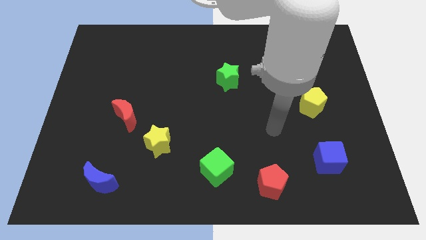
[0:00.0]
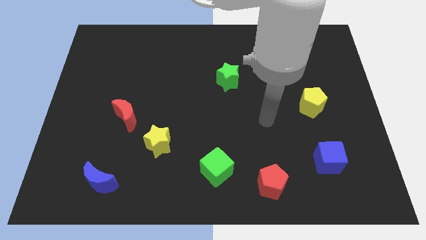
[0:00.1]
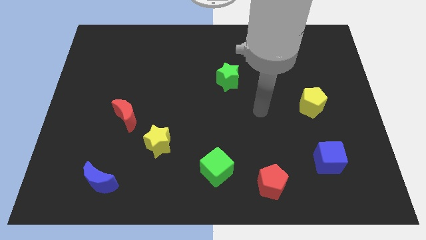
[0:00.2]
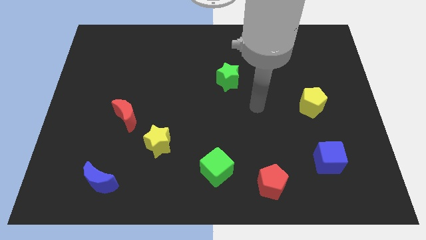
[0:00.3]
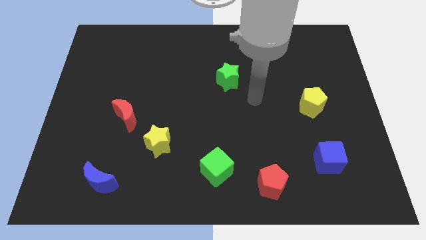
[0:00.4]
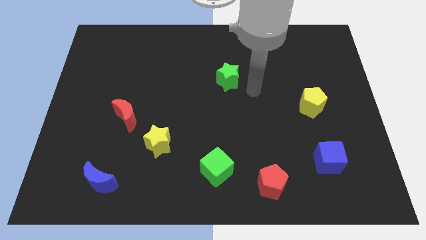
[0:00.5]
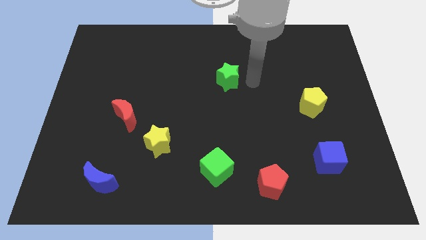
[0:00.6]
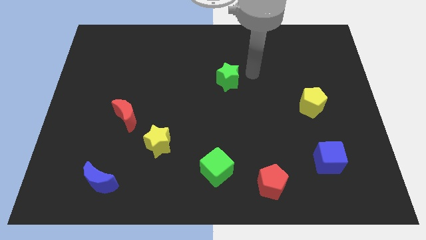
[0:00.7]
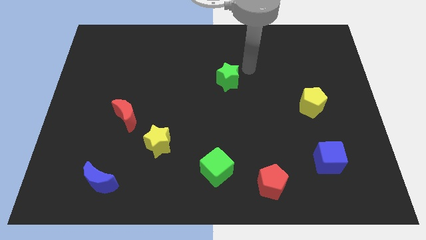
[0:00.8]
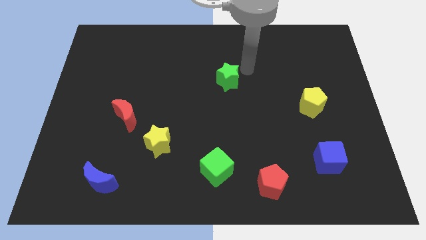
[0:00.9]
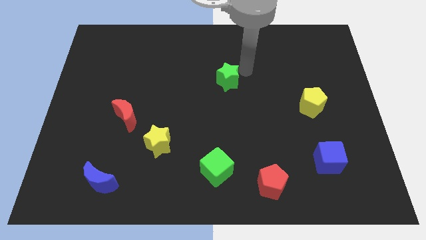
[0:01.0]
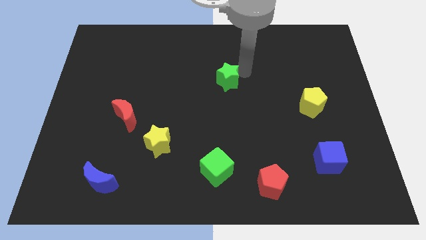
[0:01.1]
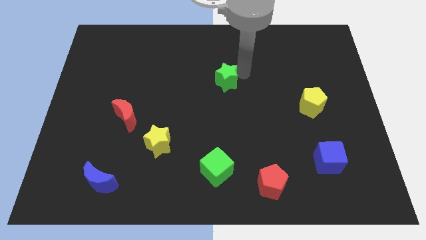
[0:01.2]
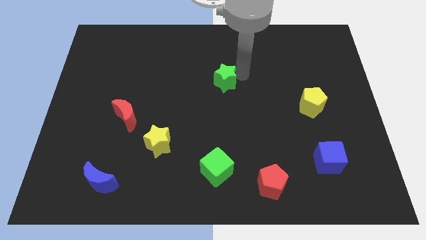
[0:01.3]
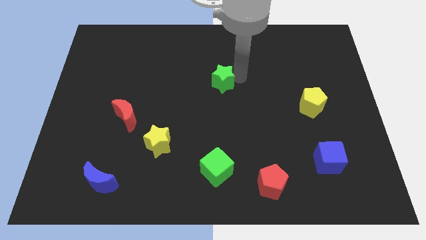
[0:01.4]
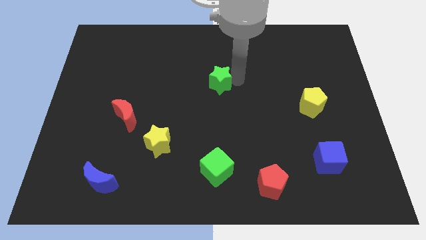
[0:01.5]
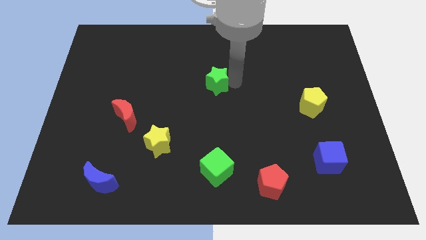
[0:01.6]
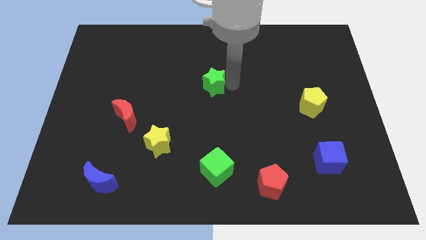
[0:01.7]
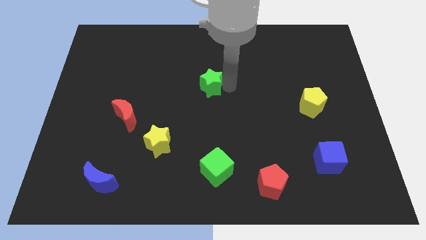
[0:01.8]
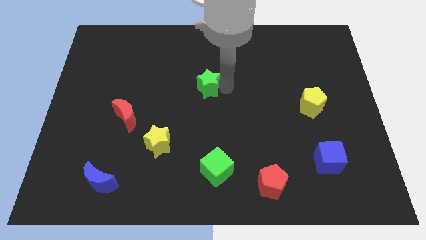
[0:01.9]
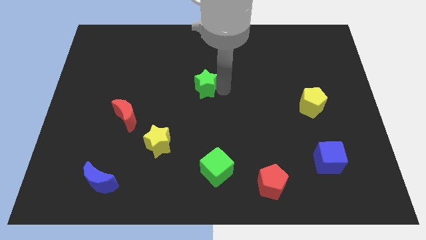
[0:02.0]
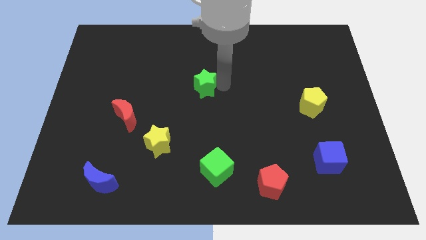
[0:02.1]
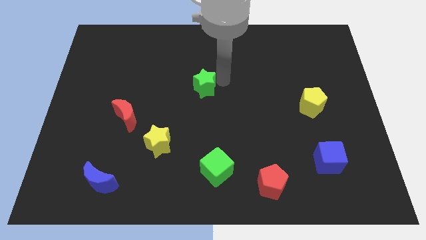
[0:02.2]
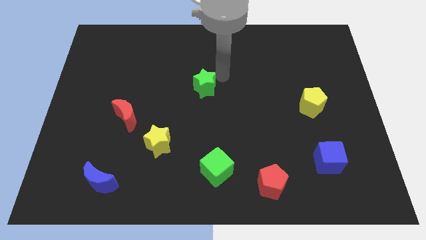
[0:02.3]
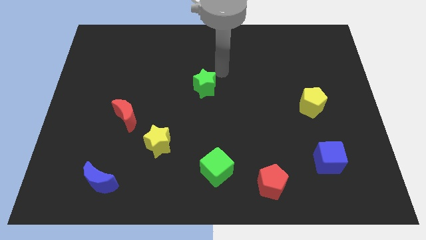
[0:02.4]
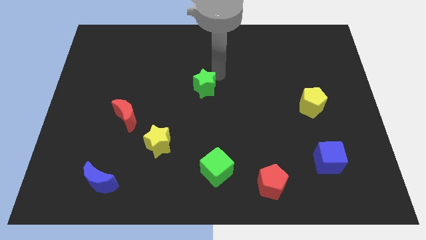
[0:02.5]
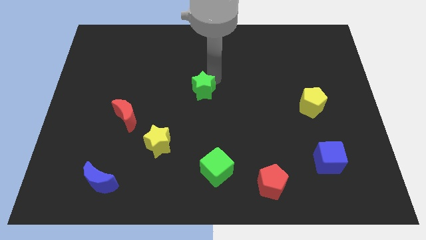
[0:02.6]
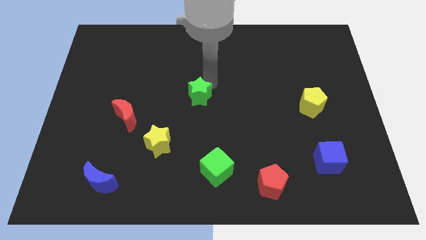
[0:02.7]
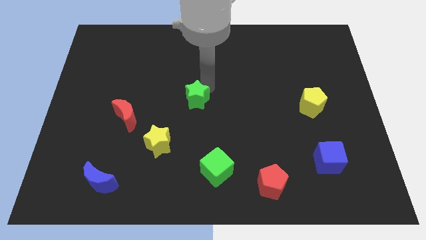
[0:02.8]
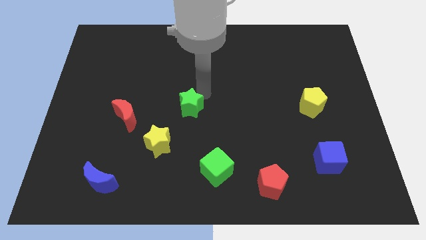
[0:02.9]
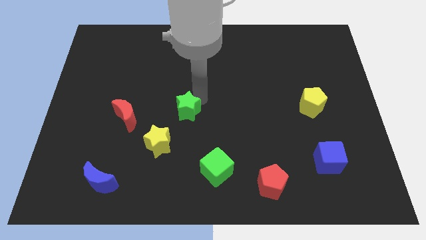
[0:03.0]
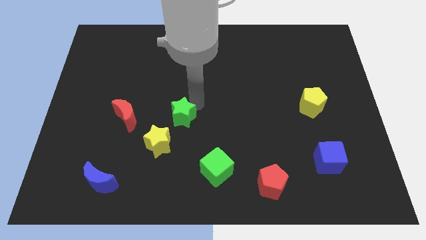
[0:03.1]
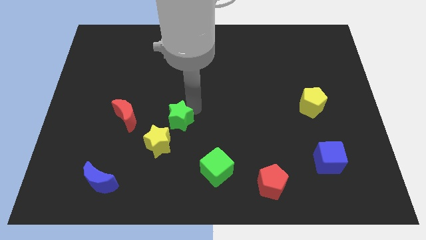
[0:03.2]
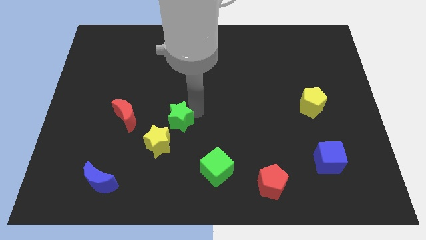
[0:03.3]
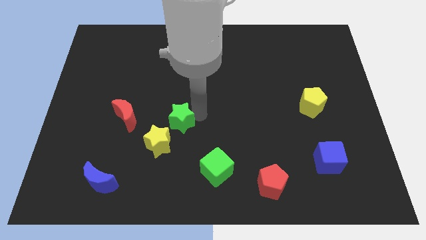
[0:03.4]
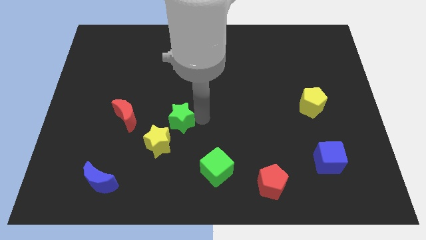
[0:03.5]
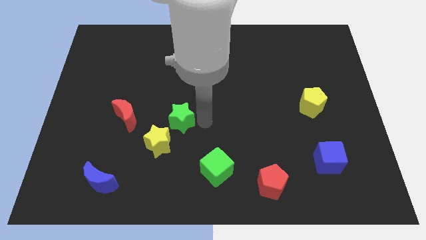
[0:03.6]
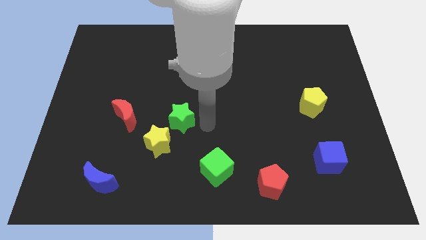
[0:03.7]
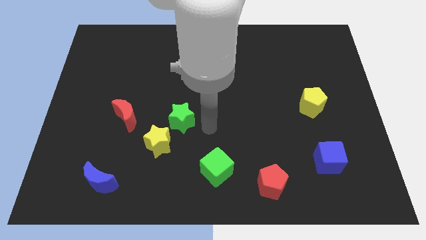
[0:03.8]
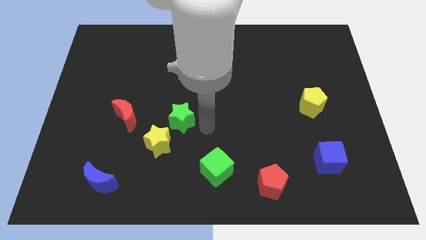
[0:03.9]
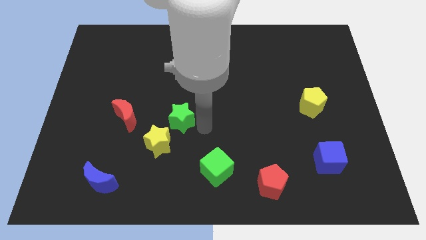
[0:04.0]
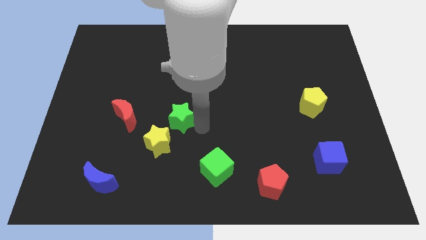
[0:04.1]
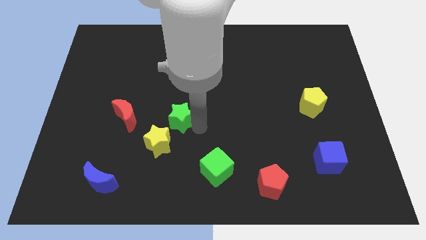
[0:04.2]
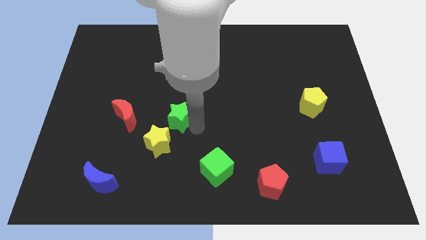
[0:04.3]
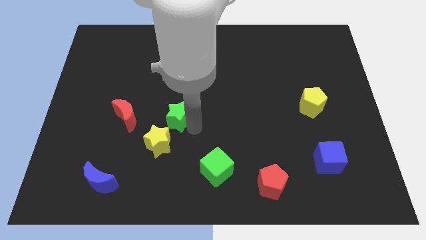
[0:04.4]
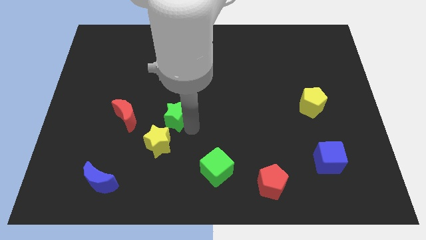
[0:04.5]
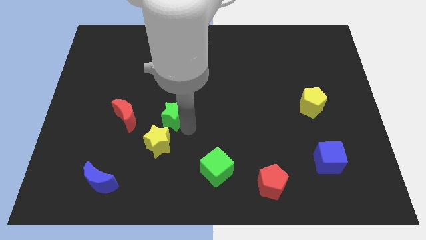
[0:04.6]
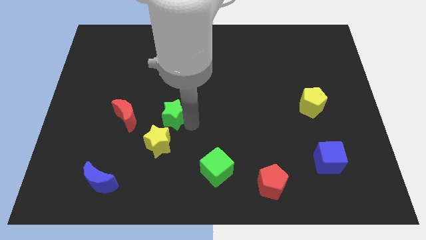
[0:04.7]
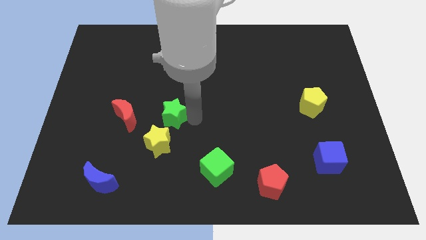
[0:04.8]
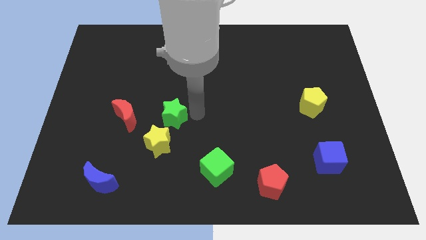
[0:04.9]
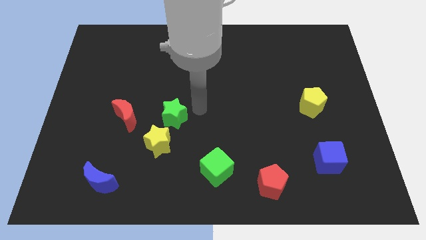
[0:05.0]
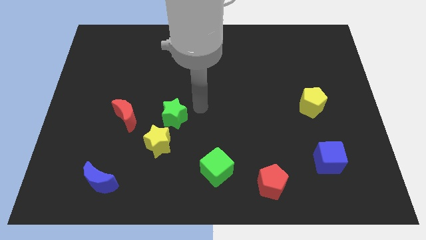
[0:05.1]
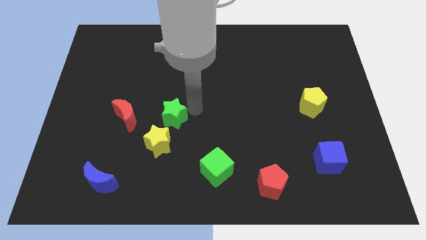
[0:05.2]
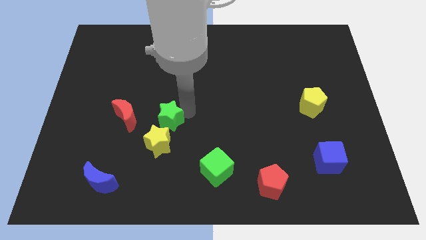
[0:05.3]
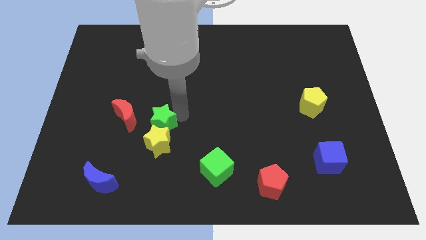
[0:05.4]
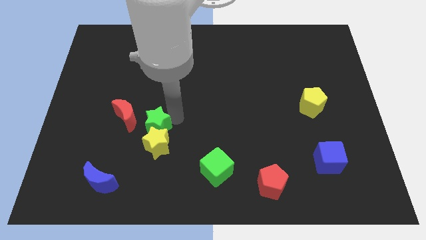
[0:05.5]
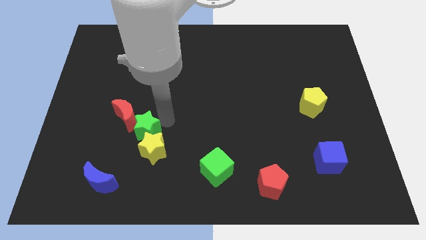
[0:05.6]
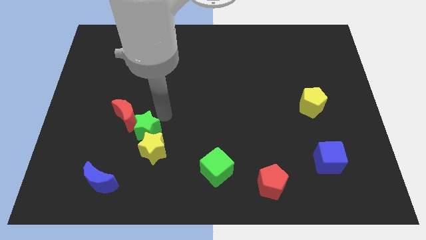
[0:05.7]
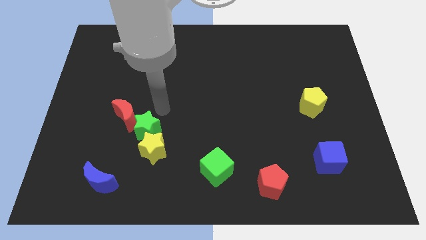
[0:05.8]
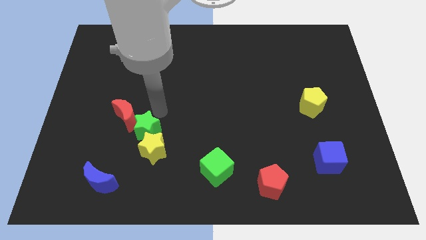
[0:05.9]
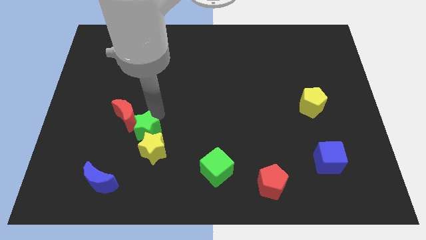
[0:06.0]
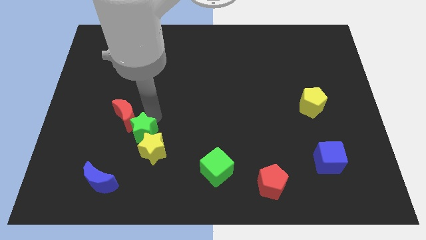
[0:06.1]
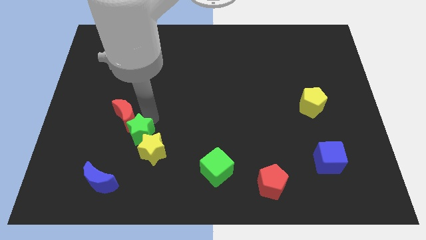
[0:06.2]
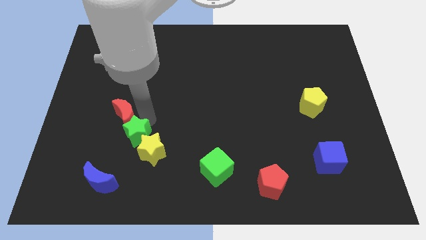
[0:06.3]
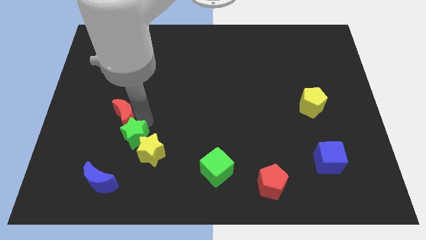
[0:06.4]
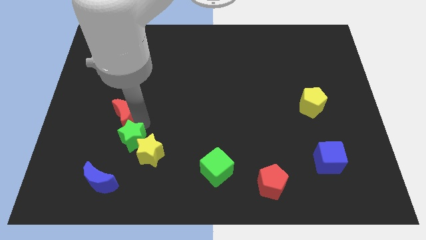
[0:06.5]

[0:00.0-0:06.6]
slide the green star to the top right of the blue moon
